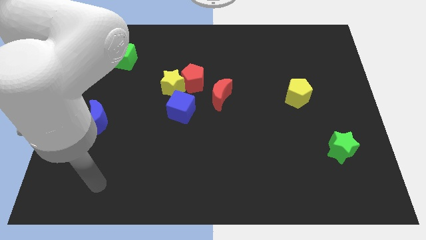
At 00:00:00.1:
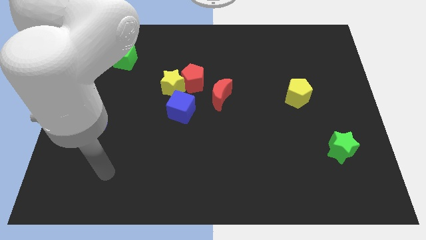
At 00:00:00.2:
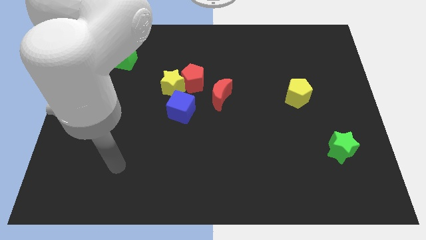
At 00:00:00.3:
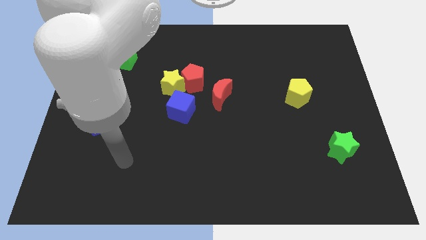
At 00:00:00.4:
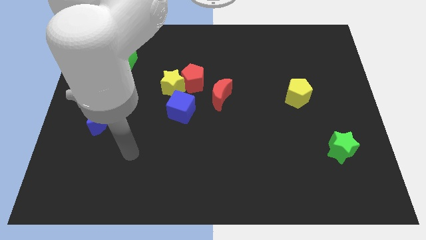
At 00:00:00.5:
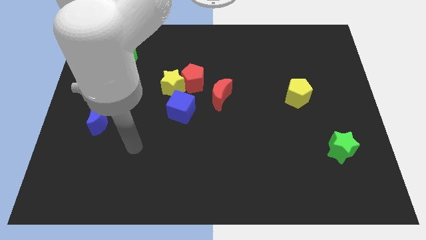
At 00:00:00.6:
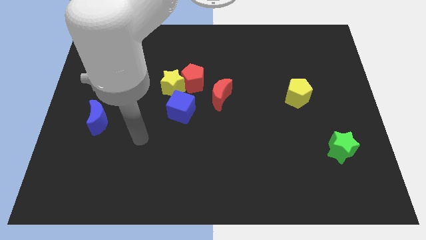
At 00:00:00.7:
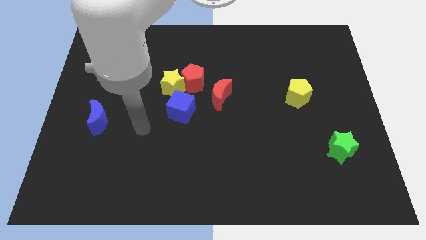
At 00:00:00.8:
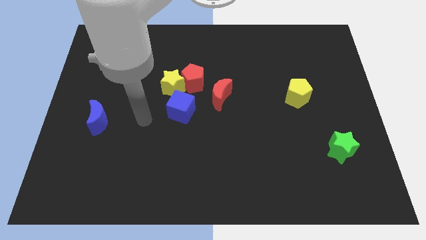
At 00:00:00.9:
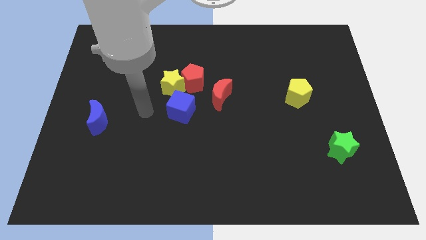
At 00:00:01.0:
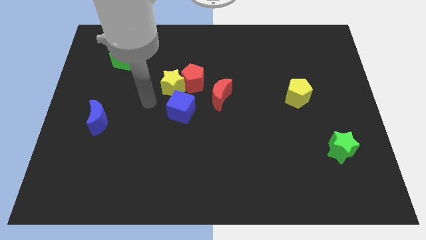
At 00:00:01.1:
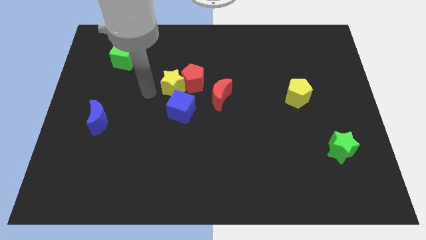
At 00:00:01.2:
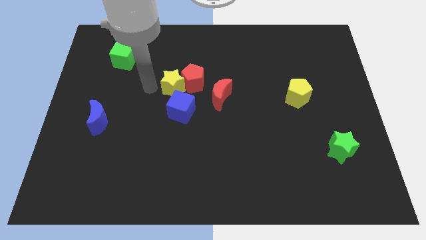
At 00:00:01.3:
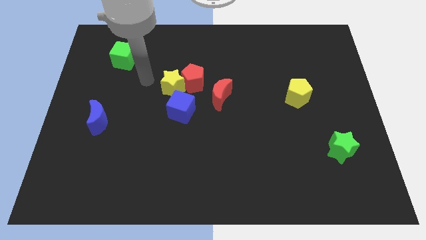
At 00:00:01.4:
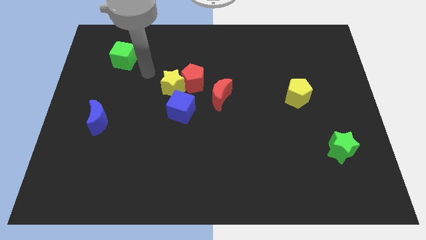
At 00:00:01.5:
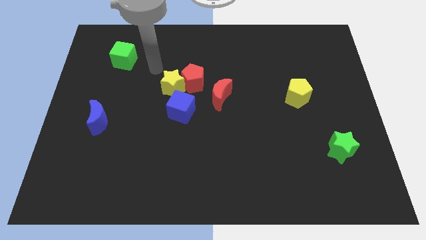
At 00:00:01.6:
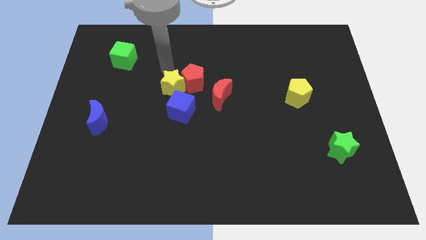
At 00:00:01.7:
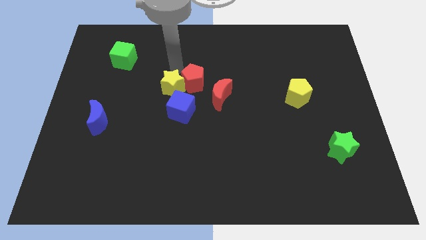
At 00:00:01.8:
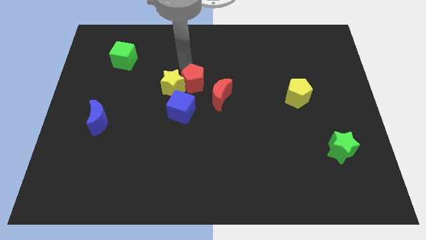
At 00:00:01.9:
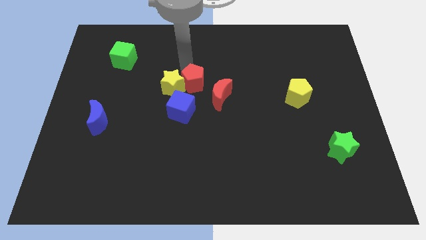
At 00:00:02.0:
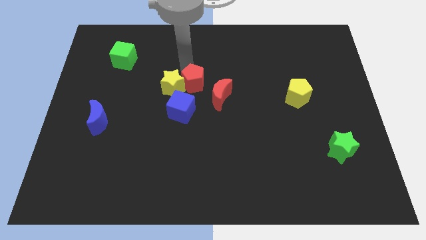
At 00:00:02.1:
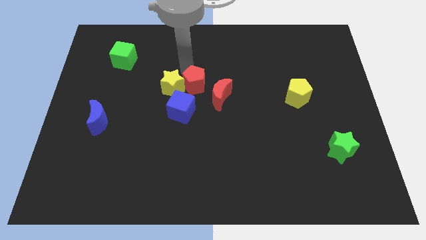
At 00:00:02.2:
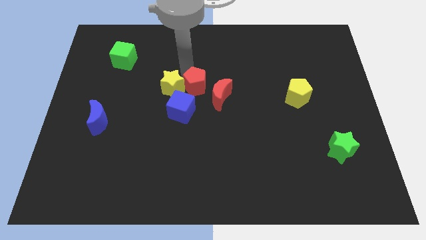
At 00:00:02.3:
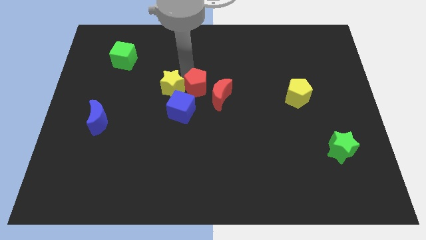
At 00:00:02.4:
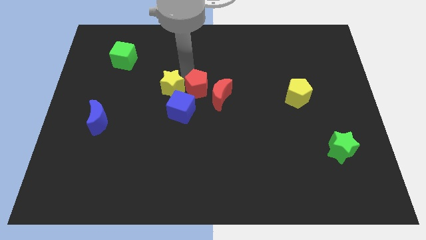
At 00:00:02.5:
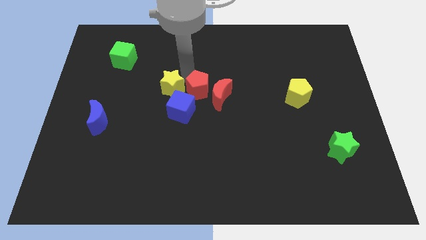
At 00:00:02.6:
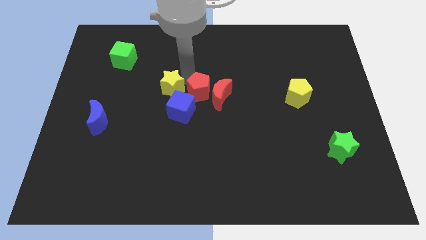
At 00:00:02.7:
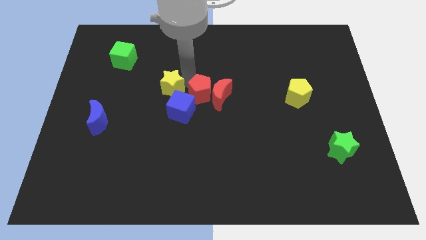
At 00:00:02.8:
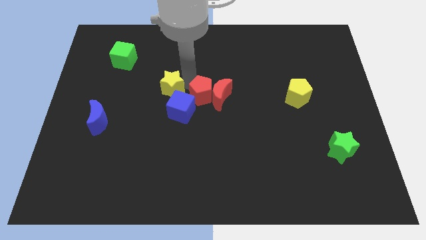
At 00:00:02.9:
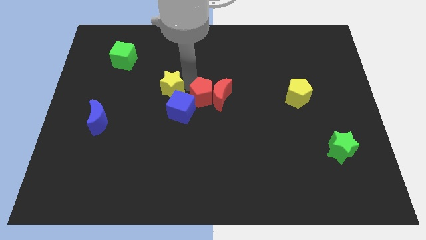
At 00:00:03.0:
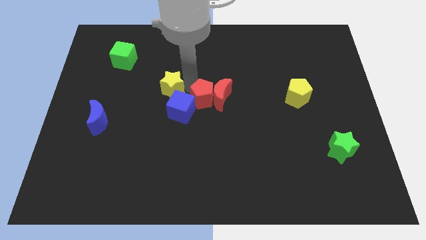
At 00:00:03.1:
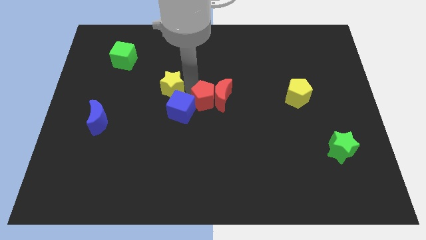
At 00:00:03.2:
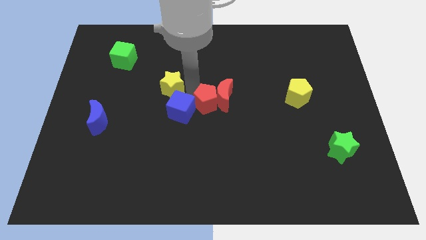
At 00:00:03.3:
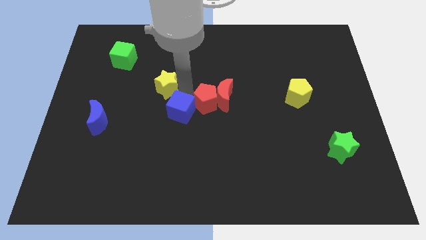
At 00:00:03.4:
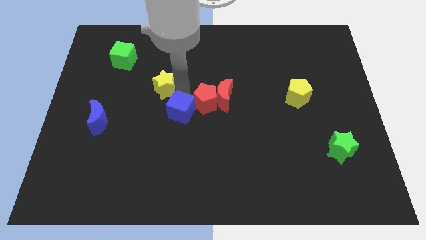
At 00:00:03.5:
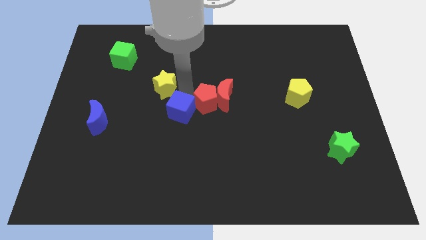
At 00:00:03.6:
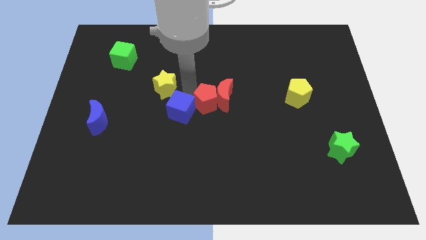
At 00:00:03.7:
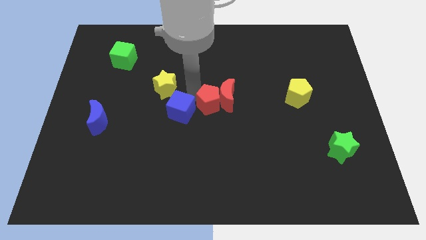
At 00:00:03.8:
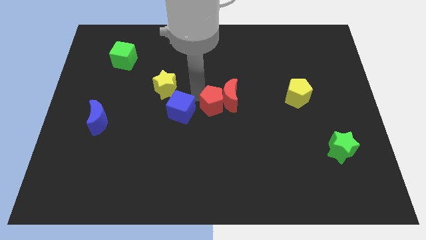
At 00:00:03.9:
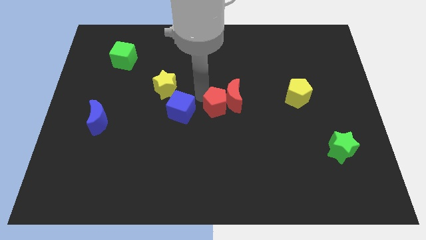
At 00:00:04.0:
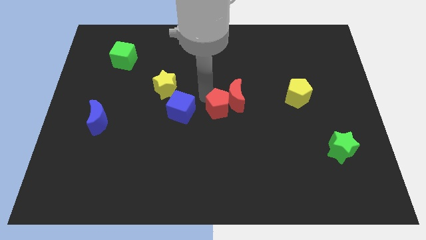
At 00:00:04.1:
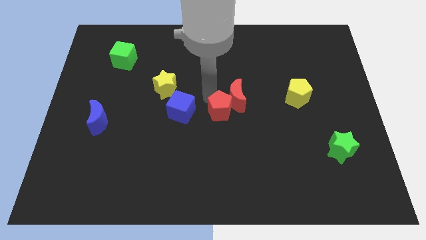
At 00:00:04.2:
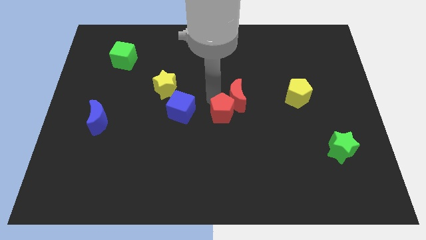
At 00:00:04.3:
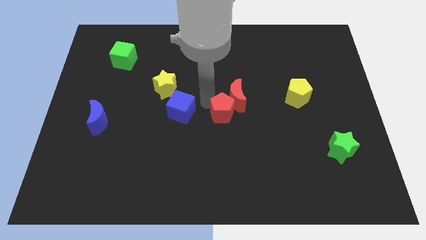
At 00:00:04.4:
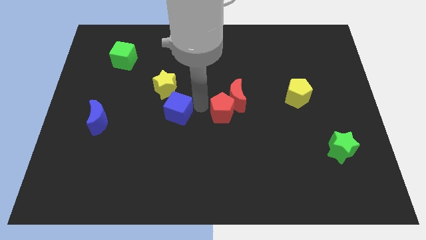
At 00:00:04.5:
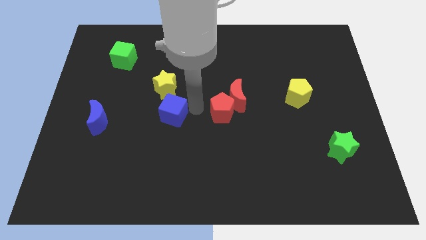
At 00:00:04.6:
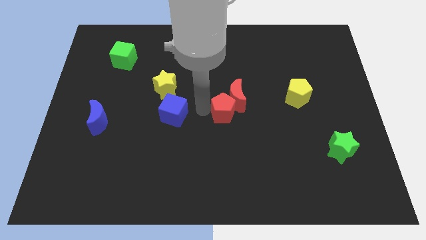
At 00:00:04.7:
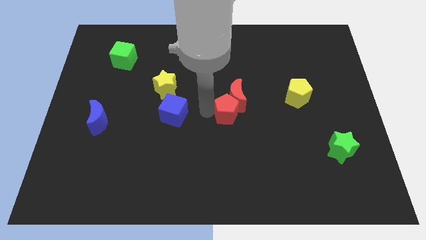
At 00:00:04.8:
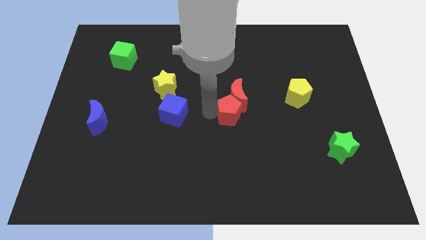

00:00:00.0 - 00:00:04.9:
move the red pentagon diagonally down and to the right of the red moon

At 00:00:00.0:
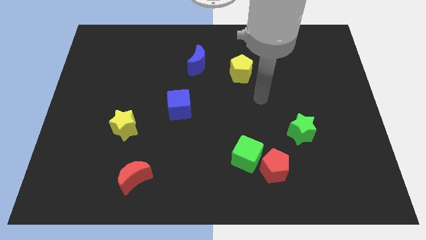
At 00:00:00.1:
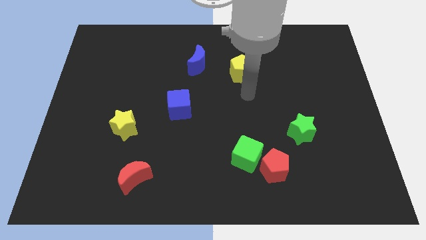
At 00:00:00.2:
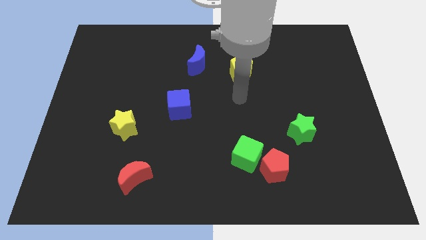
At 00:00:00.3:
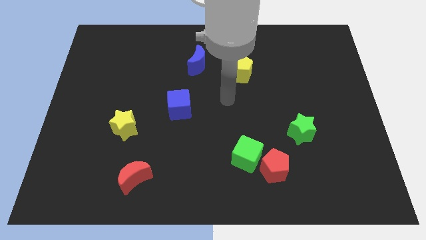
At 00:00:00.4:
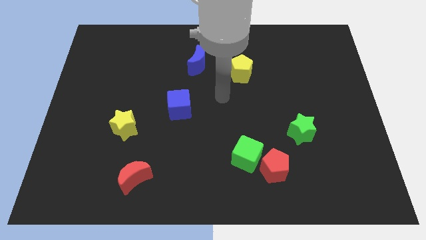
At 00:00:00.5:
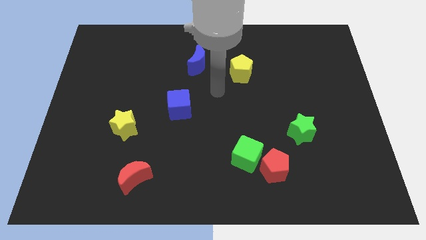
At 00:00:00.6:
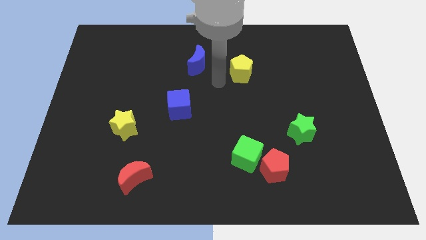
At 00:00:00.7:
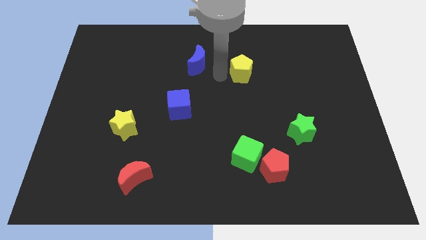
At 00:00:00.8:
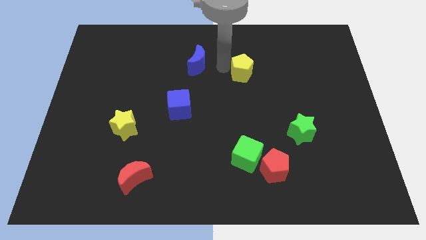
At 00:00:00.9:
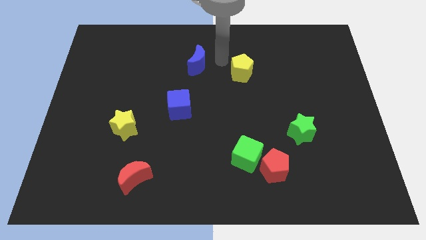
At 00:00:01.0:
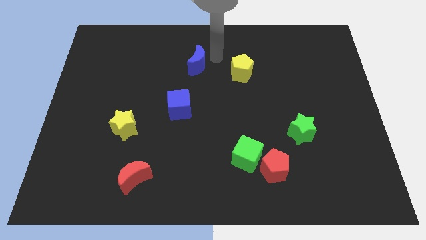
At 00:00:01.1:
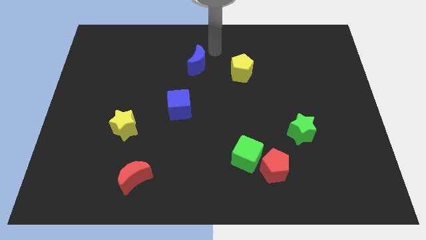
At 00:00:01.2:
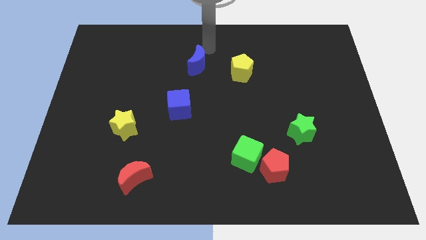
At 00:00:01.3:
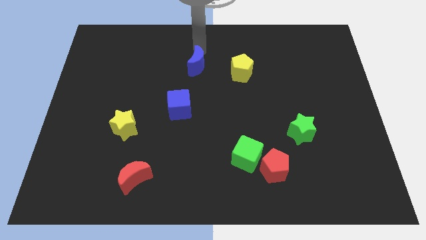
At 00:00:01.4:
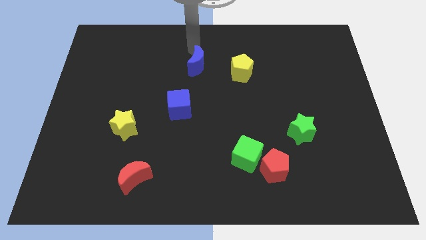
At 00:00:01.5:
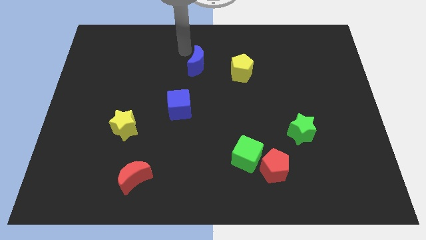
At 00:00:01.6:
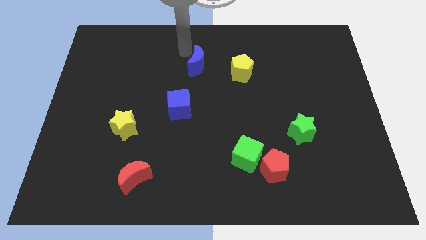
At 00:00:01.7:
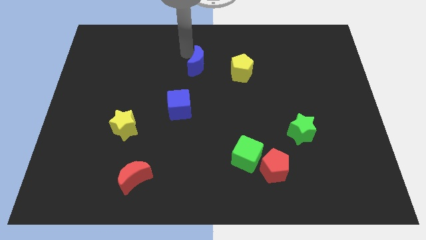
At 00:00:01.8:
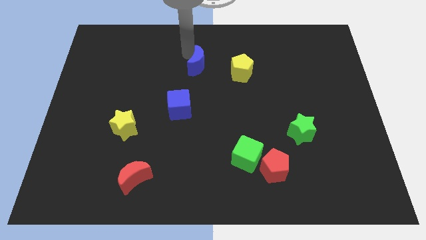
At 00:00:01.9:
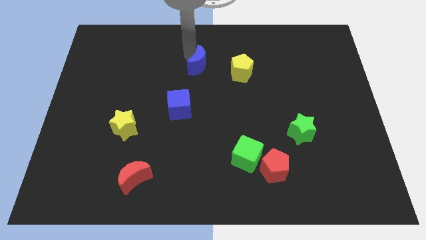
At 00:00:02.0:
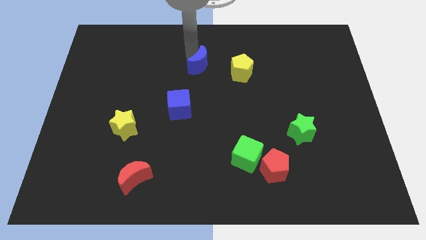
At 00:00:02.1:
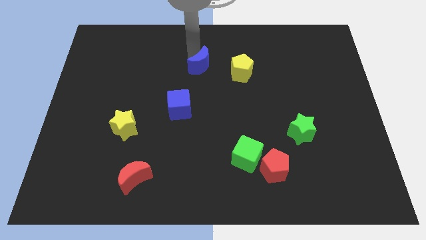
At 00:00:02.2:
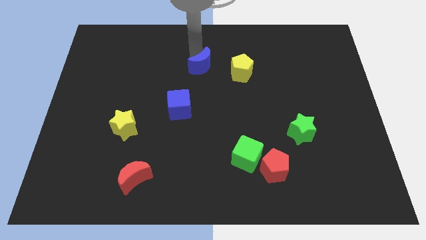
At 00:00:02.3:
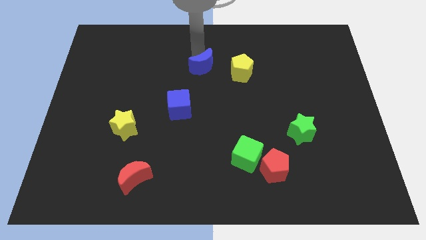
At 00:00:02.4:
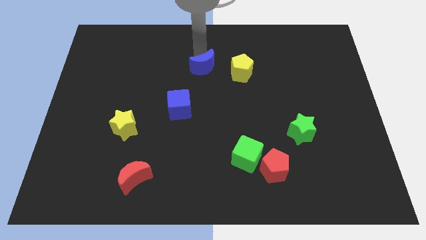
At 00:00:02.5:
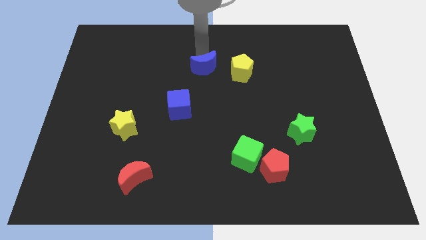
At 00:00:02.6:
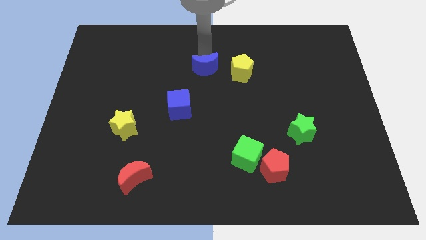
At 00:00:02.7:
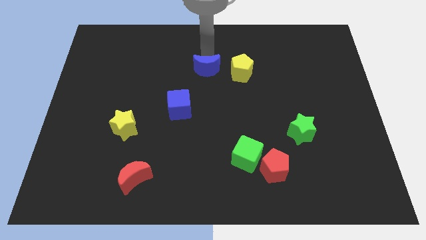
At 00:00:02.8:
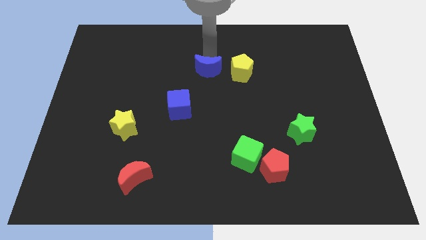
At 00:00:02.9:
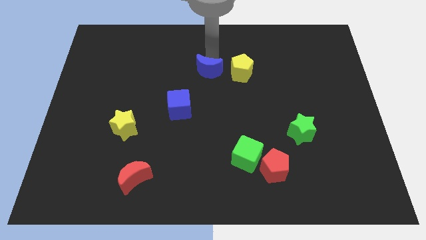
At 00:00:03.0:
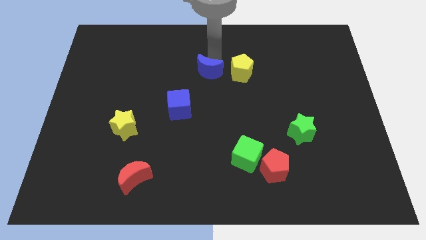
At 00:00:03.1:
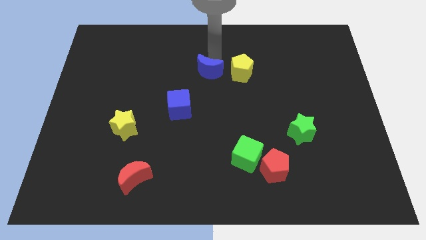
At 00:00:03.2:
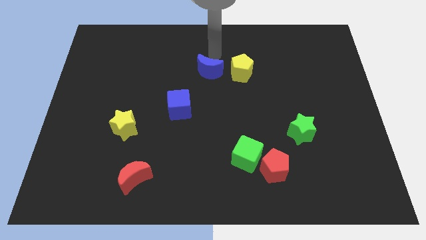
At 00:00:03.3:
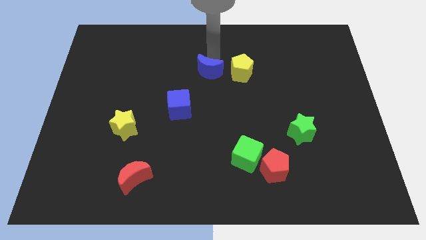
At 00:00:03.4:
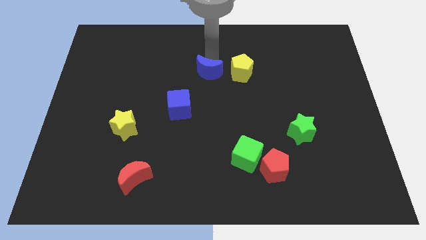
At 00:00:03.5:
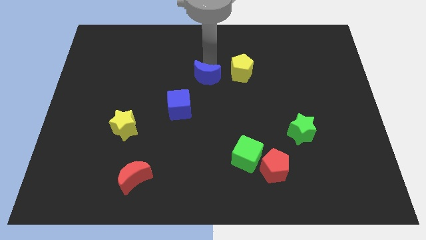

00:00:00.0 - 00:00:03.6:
slide the blue moon to the top right of the blue cube
